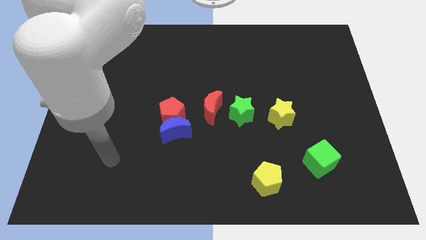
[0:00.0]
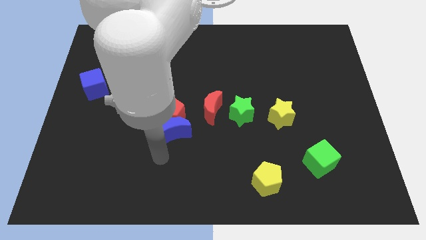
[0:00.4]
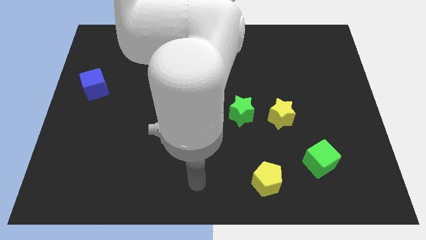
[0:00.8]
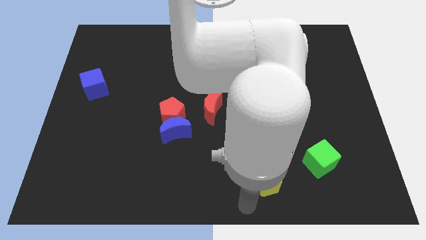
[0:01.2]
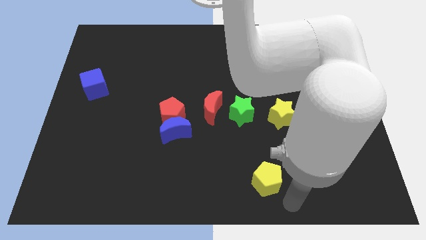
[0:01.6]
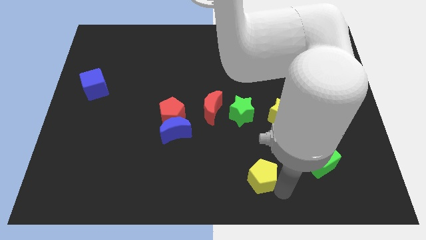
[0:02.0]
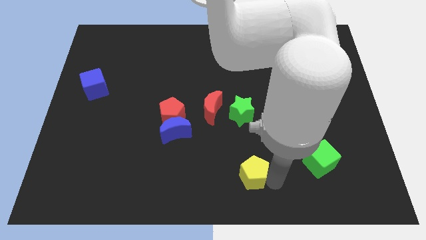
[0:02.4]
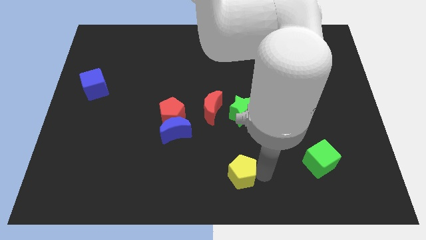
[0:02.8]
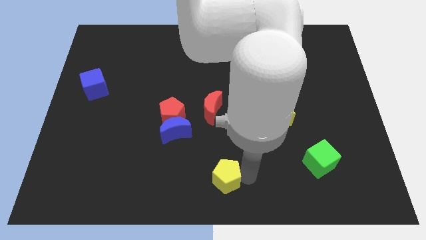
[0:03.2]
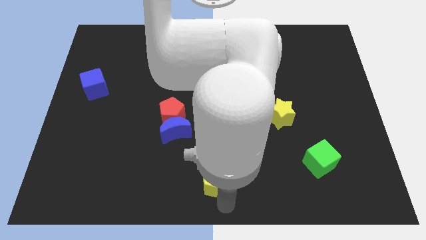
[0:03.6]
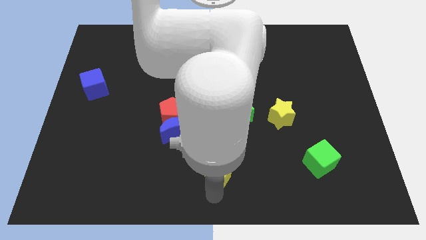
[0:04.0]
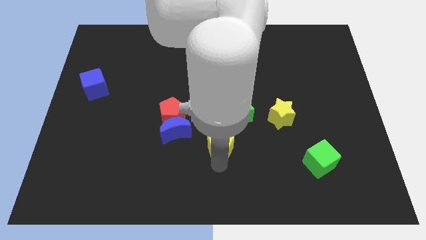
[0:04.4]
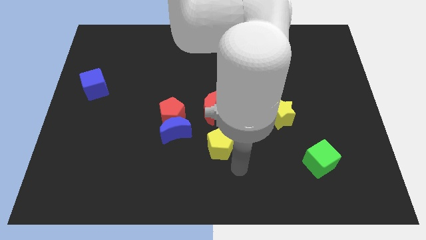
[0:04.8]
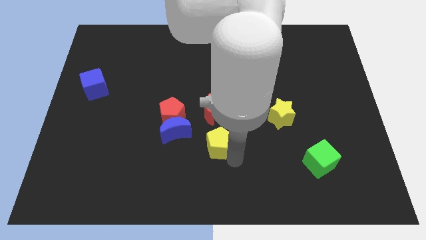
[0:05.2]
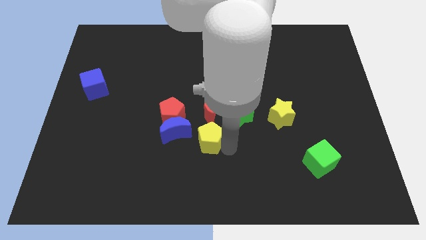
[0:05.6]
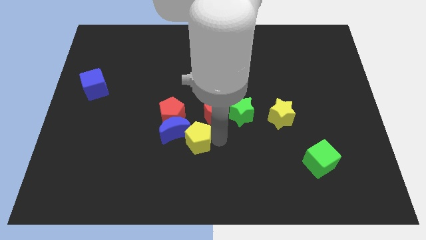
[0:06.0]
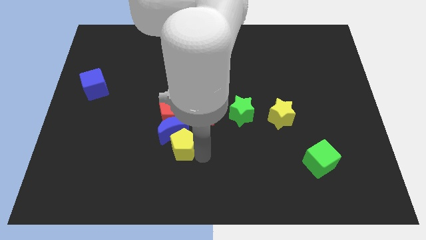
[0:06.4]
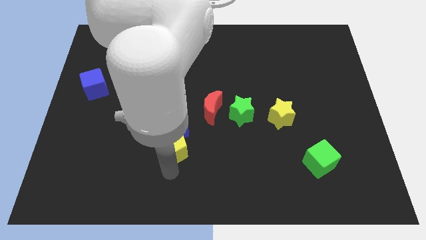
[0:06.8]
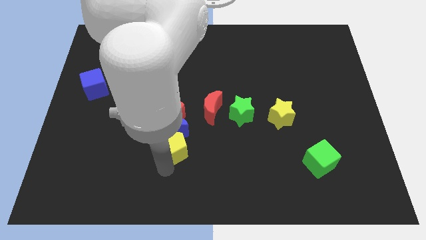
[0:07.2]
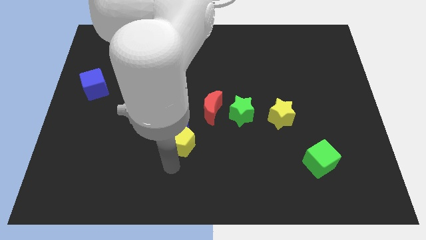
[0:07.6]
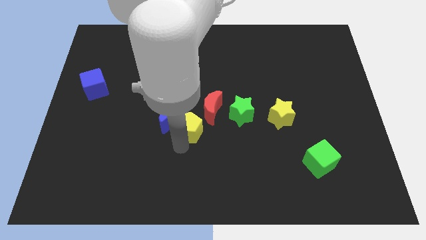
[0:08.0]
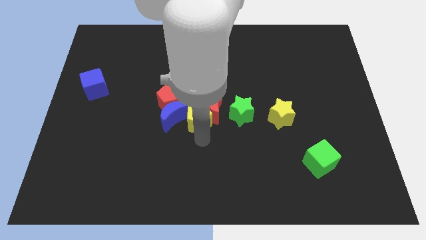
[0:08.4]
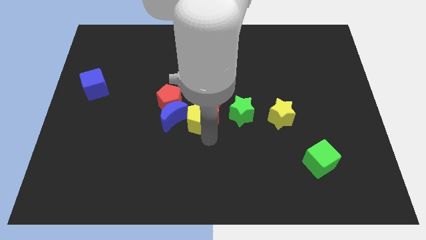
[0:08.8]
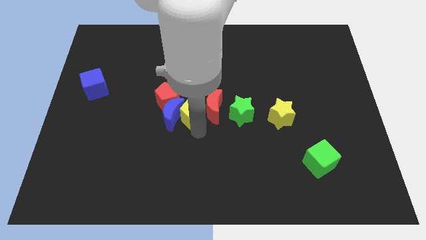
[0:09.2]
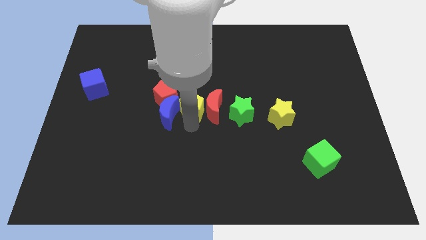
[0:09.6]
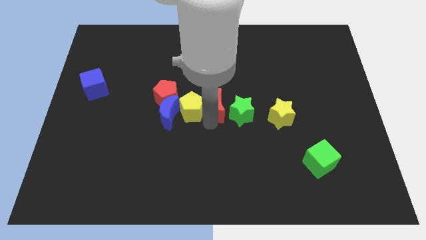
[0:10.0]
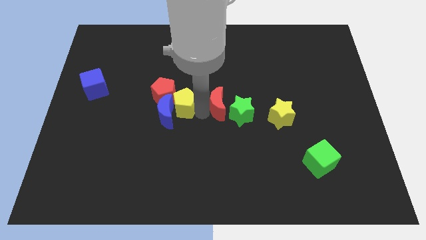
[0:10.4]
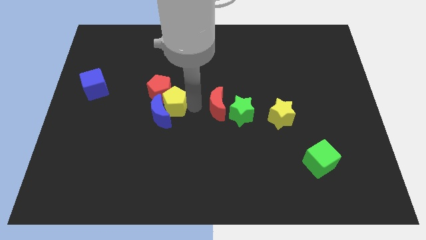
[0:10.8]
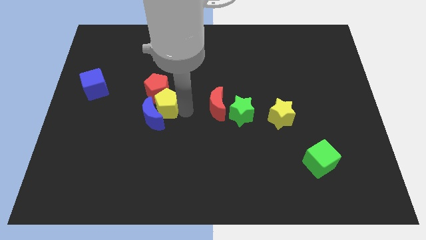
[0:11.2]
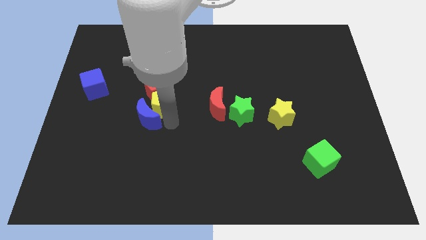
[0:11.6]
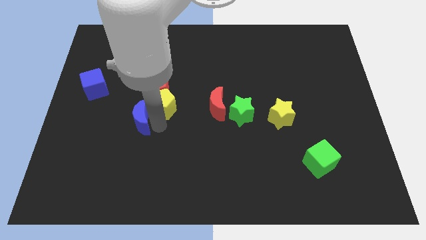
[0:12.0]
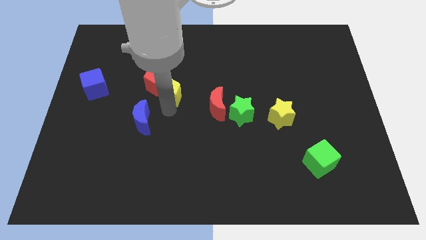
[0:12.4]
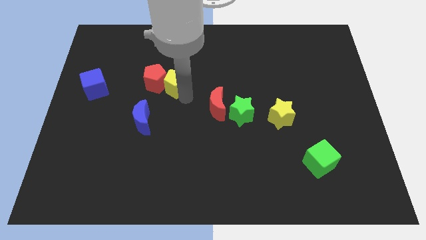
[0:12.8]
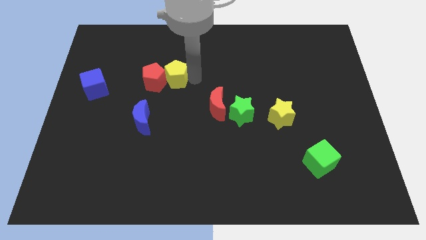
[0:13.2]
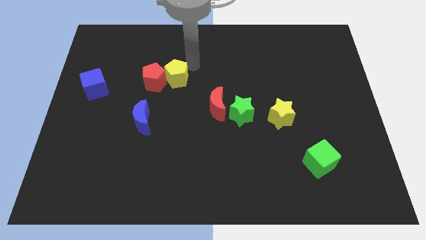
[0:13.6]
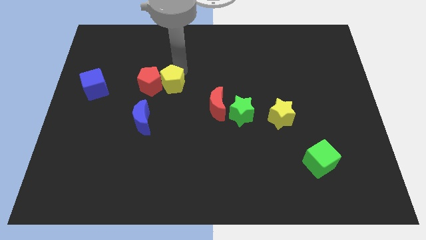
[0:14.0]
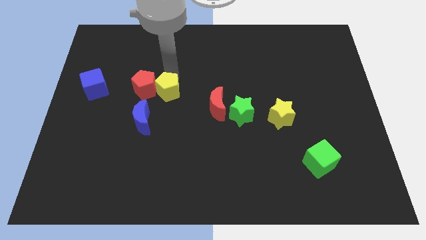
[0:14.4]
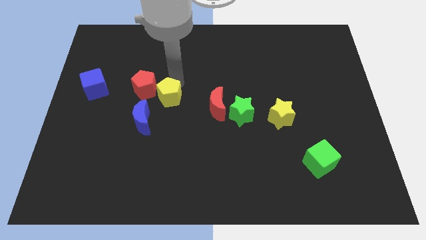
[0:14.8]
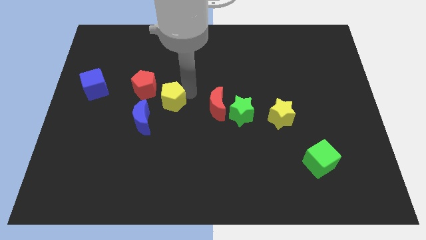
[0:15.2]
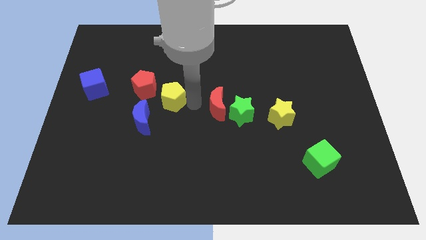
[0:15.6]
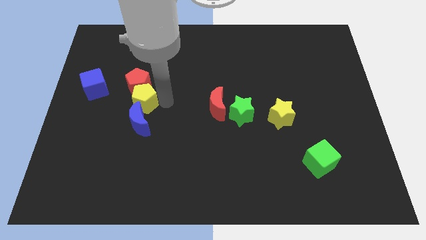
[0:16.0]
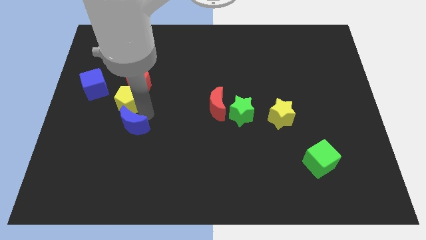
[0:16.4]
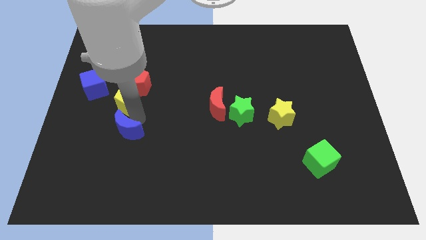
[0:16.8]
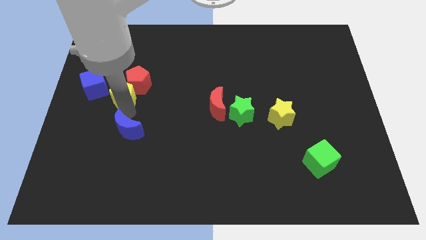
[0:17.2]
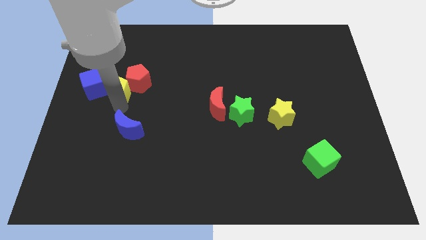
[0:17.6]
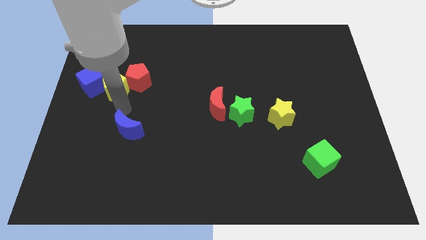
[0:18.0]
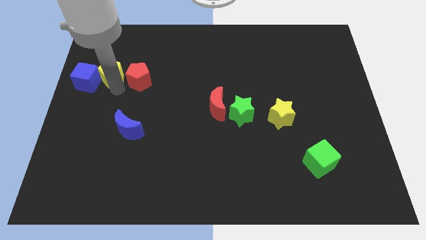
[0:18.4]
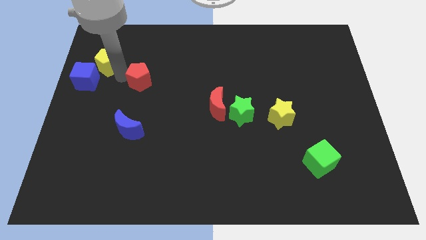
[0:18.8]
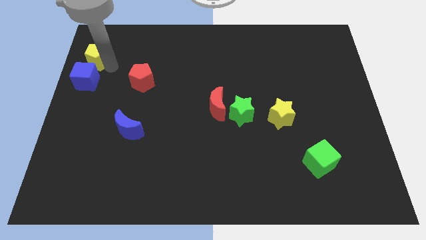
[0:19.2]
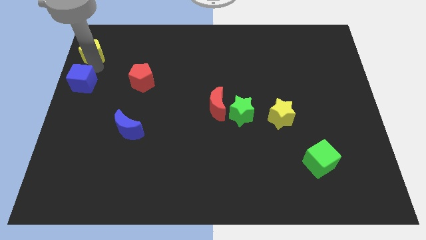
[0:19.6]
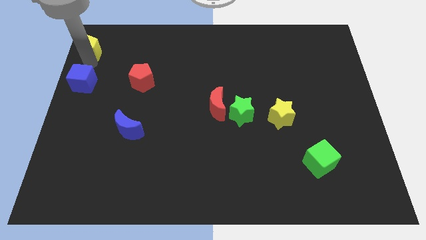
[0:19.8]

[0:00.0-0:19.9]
move the yellow pentagon to the upper left corner

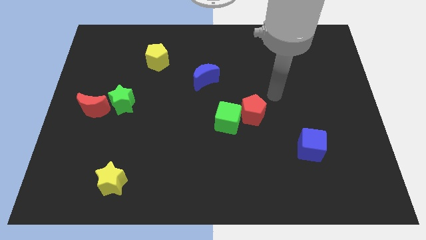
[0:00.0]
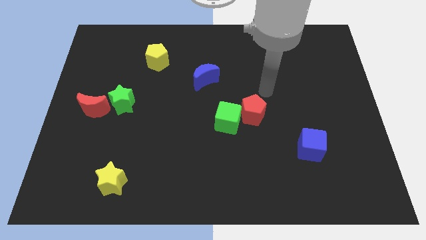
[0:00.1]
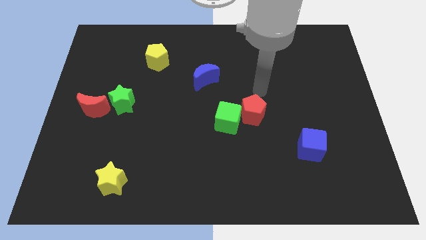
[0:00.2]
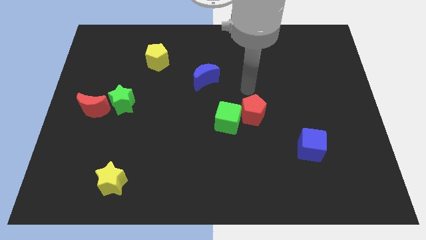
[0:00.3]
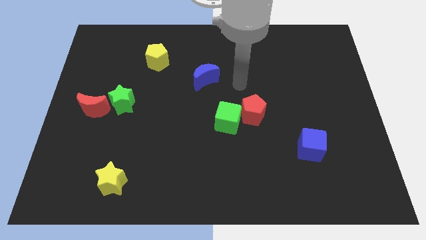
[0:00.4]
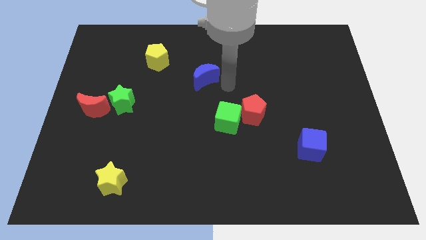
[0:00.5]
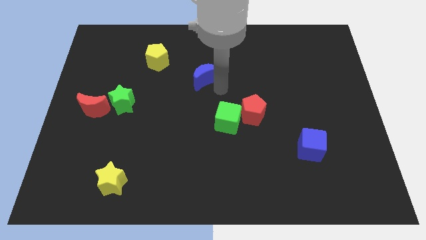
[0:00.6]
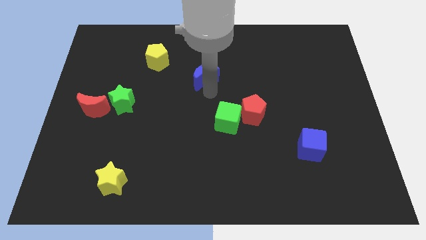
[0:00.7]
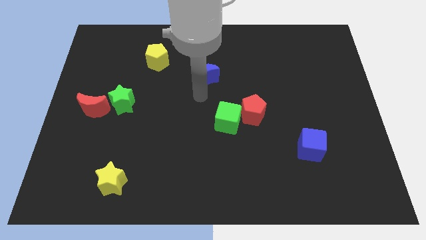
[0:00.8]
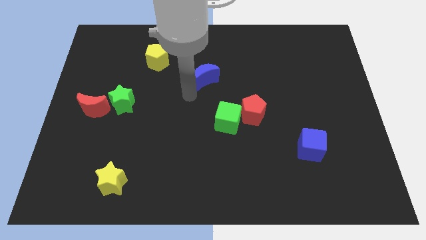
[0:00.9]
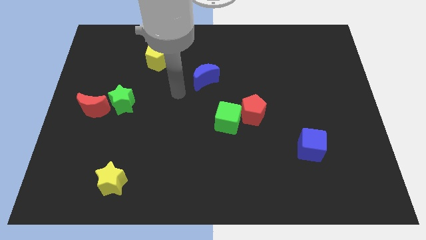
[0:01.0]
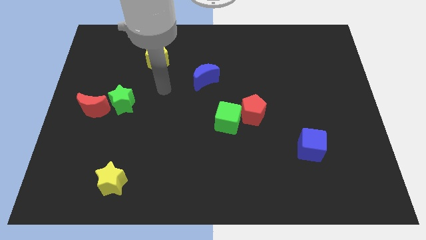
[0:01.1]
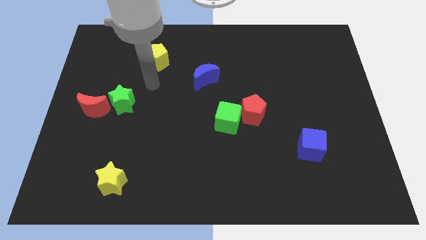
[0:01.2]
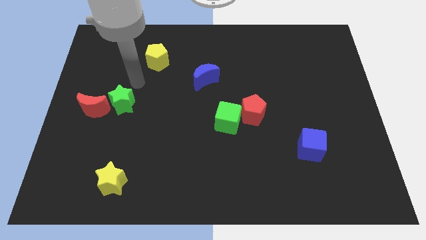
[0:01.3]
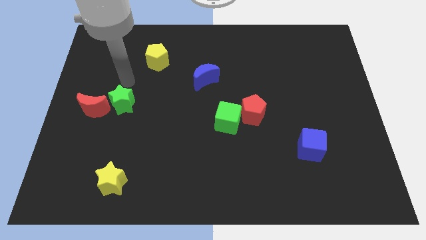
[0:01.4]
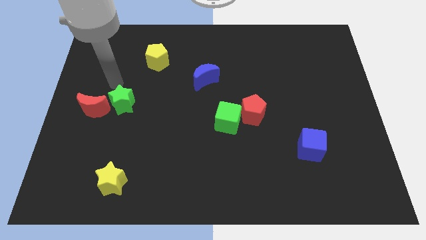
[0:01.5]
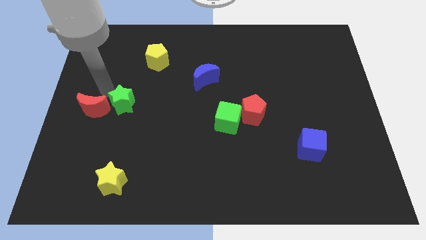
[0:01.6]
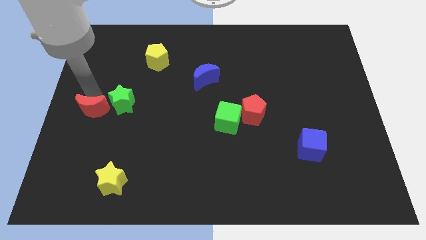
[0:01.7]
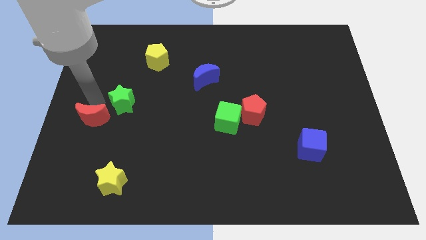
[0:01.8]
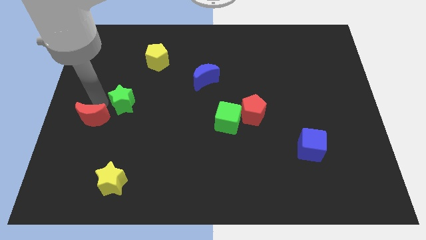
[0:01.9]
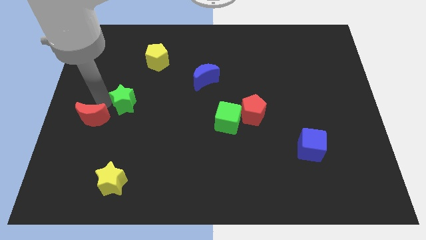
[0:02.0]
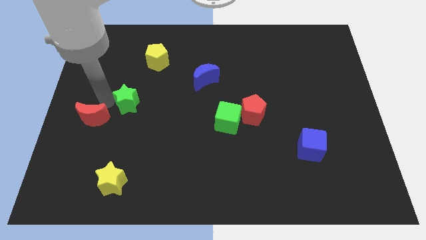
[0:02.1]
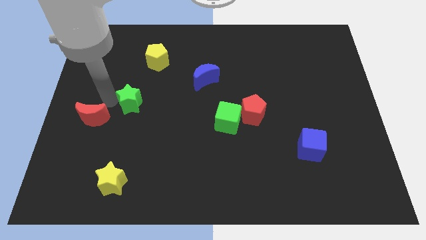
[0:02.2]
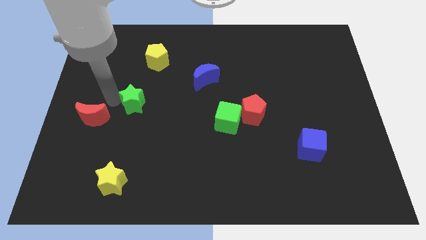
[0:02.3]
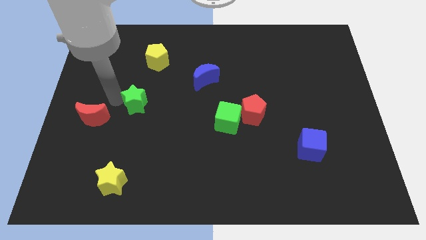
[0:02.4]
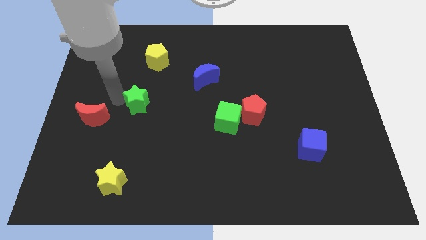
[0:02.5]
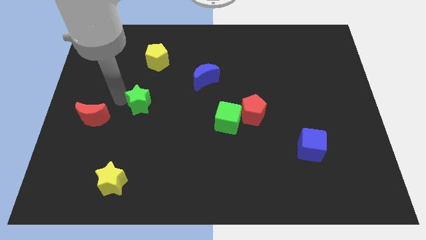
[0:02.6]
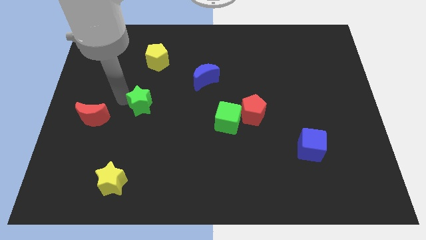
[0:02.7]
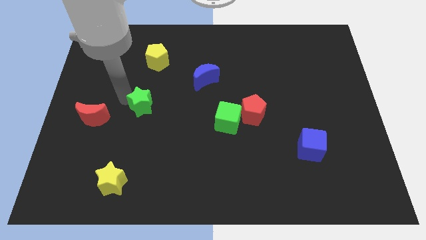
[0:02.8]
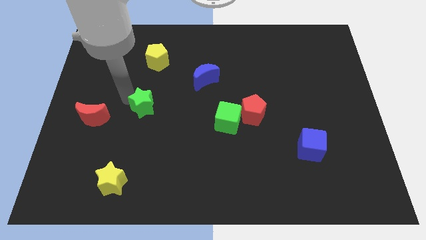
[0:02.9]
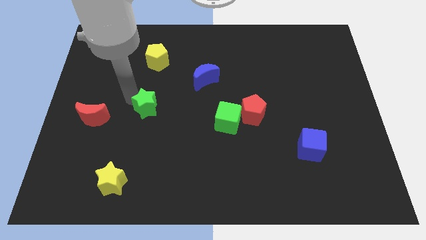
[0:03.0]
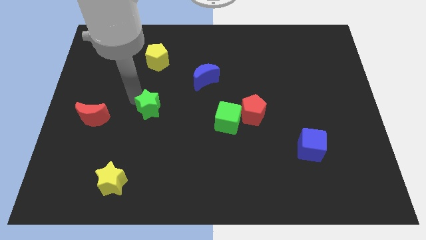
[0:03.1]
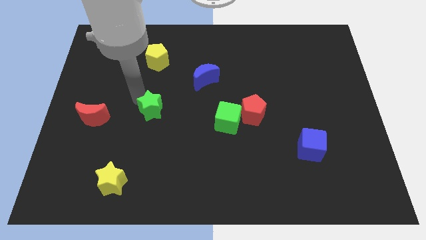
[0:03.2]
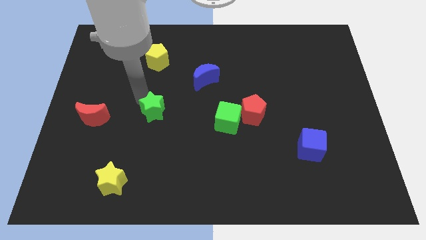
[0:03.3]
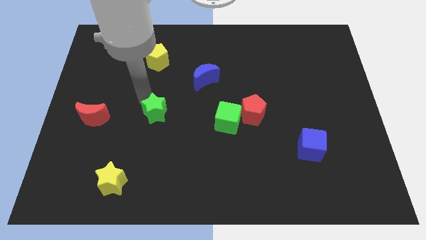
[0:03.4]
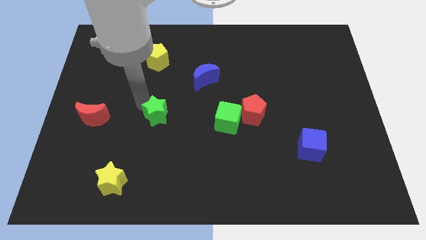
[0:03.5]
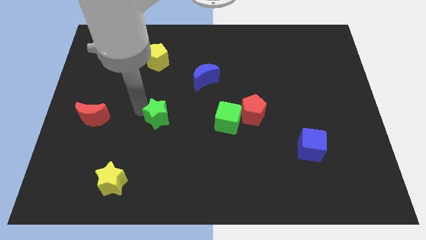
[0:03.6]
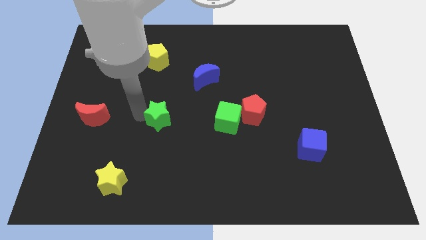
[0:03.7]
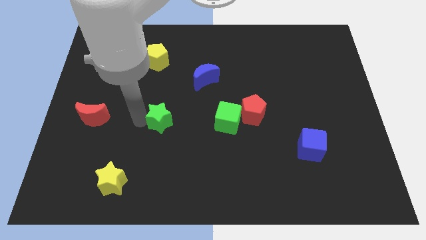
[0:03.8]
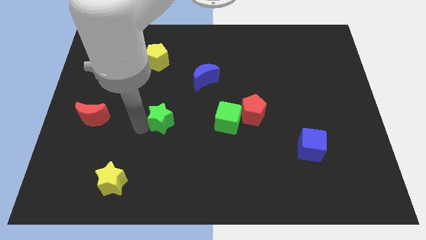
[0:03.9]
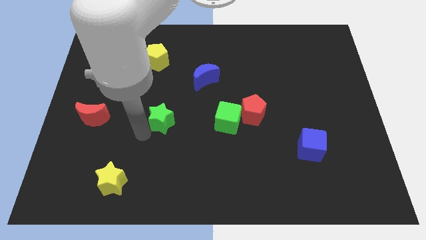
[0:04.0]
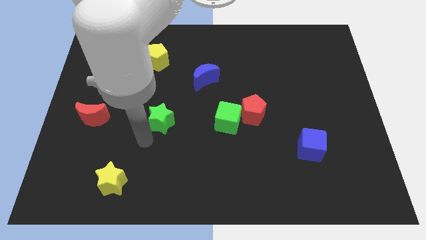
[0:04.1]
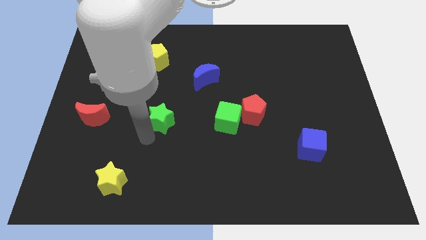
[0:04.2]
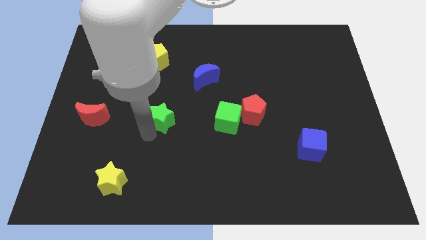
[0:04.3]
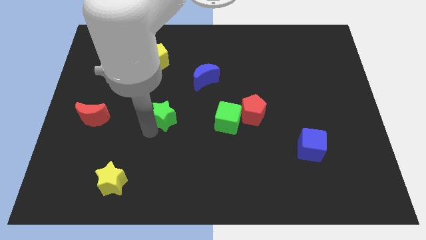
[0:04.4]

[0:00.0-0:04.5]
push the green star to the center of the board
